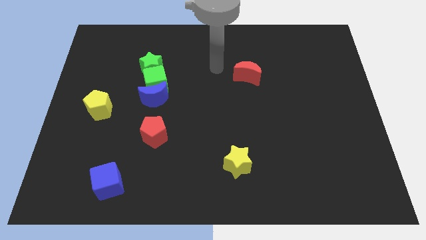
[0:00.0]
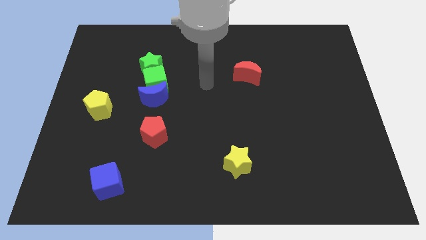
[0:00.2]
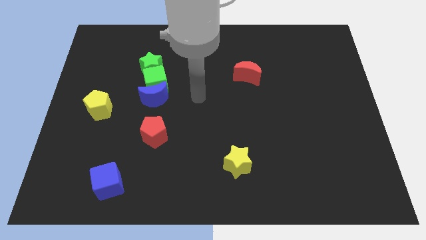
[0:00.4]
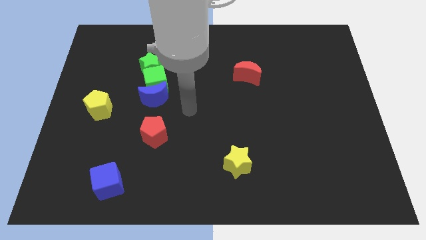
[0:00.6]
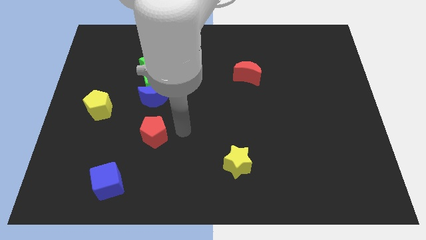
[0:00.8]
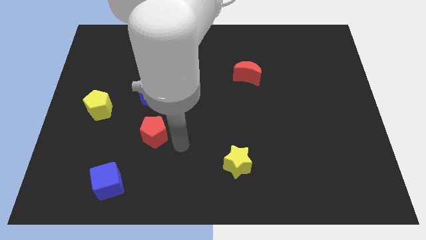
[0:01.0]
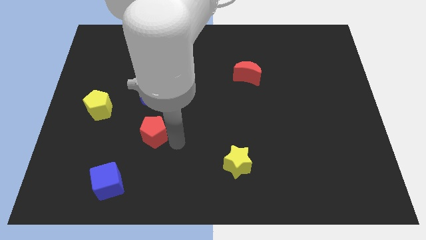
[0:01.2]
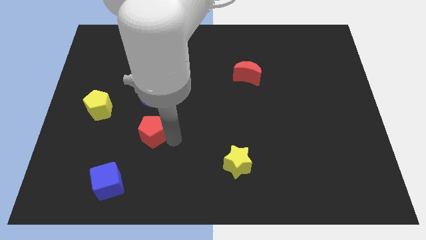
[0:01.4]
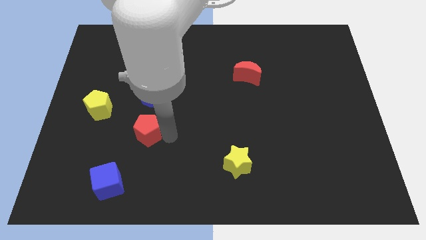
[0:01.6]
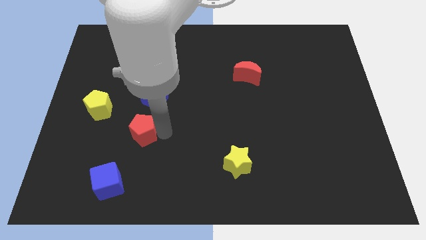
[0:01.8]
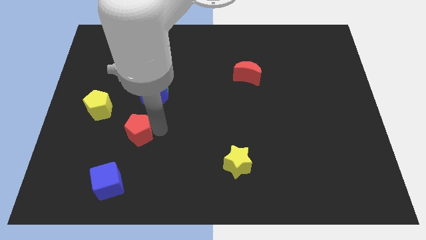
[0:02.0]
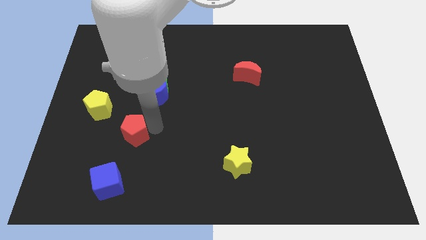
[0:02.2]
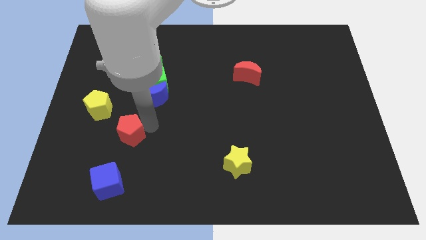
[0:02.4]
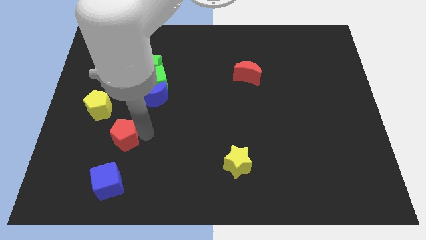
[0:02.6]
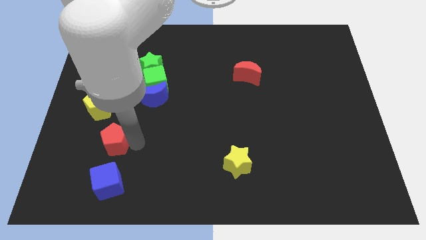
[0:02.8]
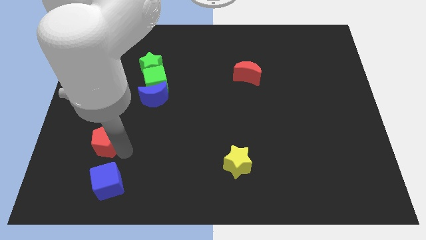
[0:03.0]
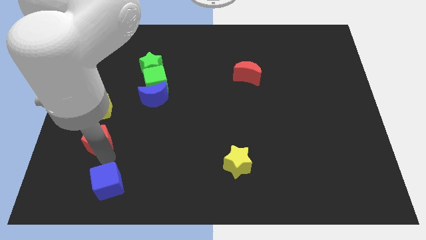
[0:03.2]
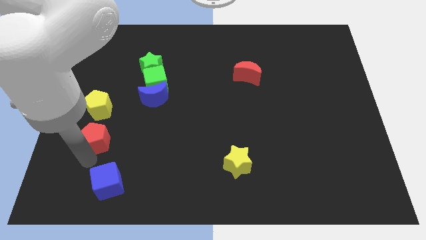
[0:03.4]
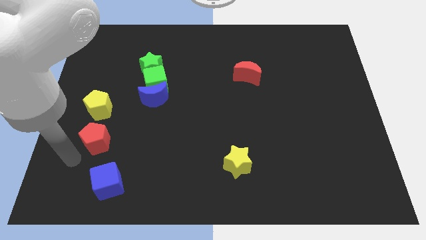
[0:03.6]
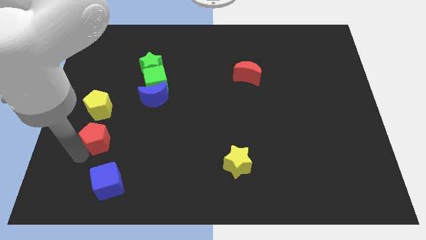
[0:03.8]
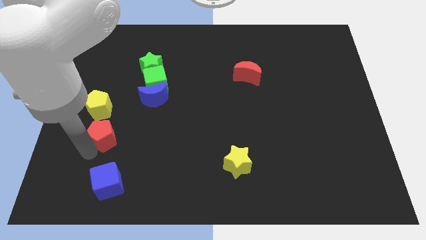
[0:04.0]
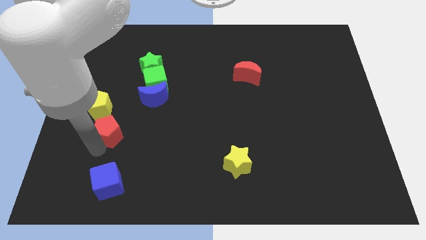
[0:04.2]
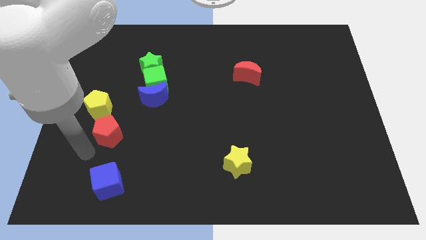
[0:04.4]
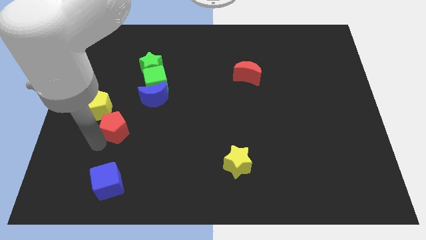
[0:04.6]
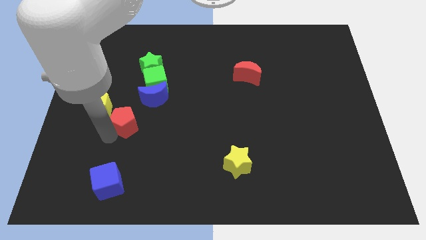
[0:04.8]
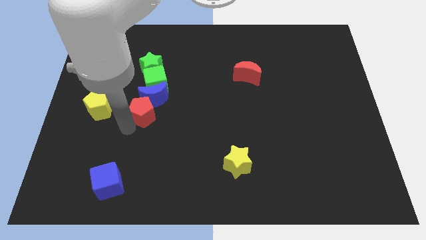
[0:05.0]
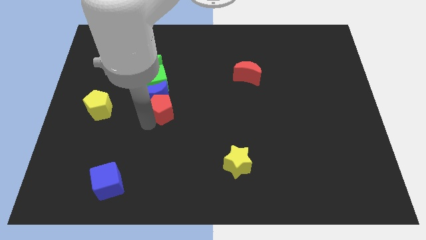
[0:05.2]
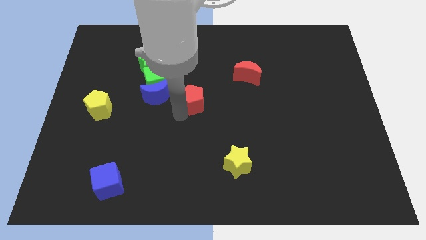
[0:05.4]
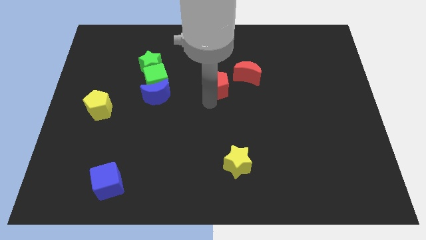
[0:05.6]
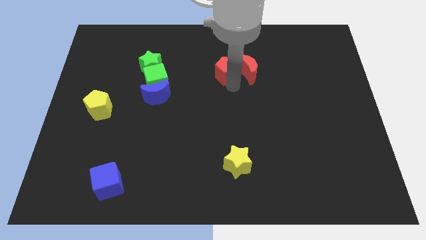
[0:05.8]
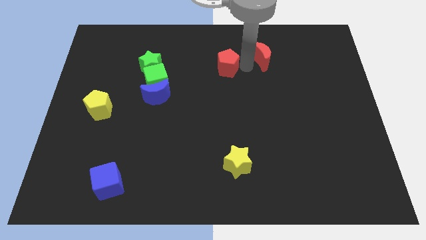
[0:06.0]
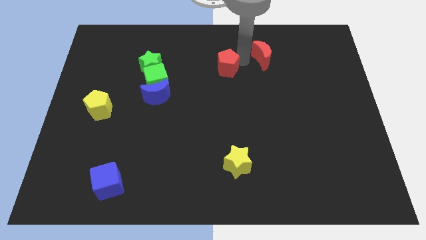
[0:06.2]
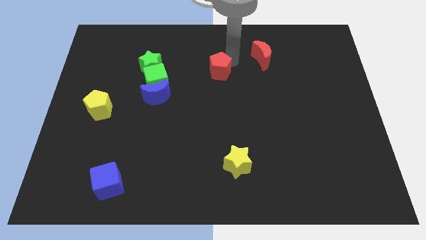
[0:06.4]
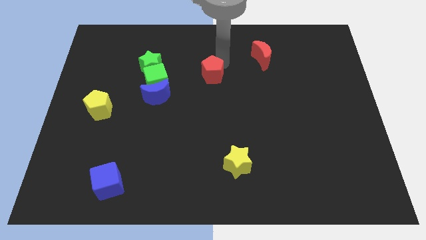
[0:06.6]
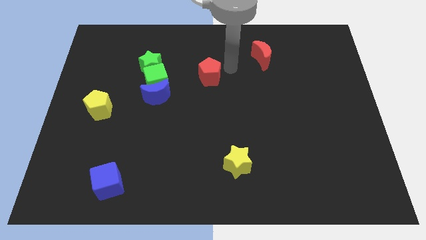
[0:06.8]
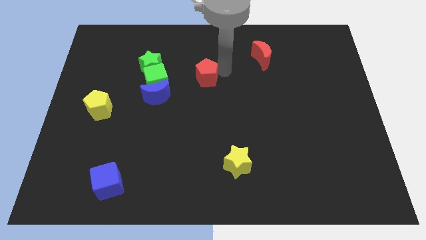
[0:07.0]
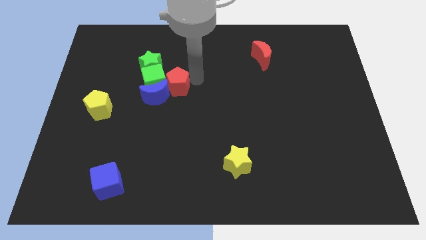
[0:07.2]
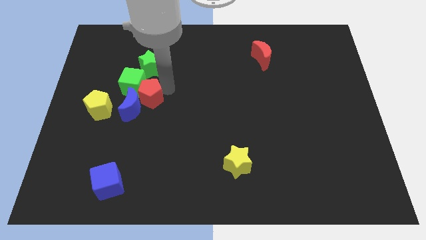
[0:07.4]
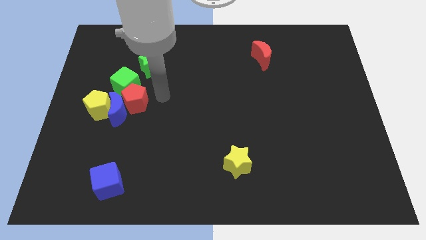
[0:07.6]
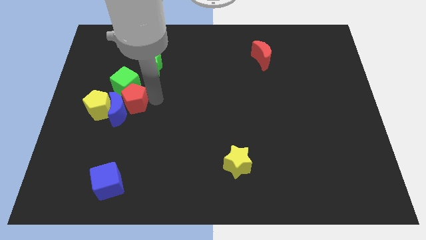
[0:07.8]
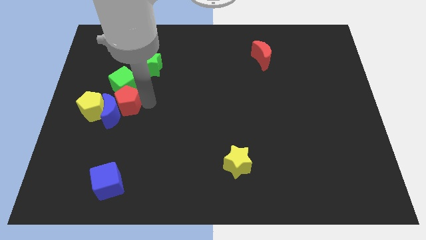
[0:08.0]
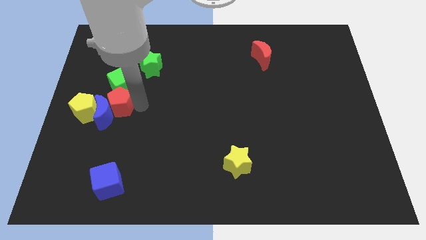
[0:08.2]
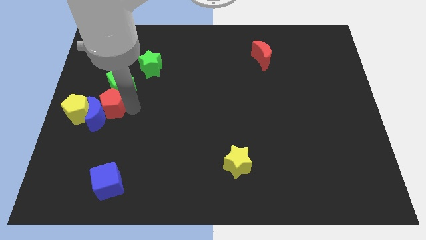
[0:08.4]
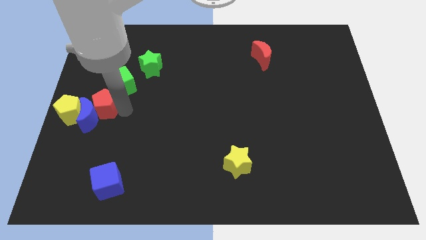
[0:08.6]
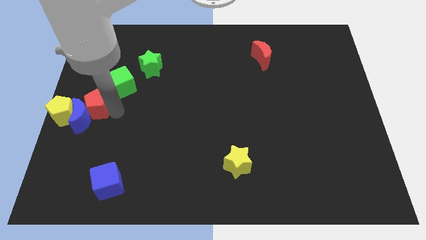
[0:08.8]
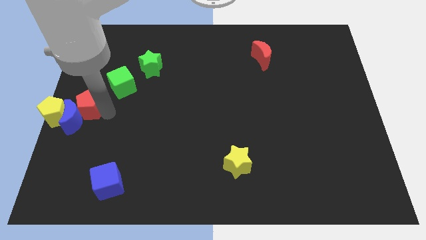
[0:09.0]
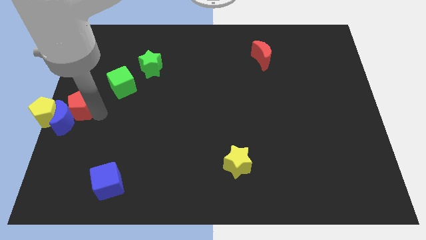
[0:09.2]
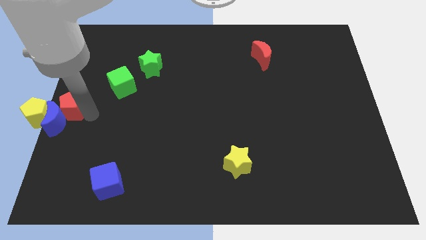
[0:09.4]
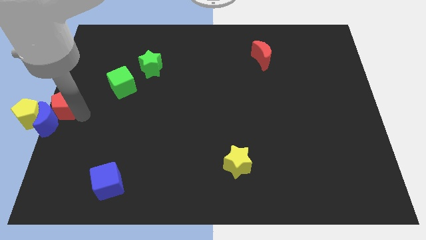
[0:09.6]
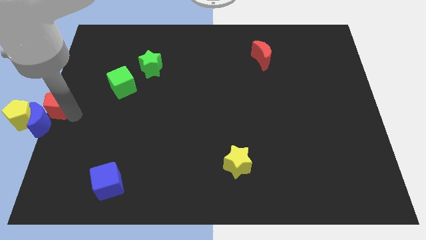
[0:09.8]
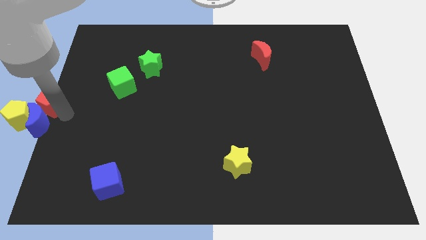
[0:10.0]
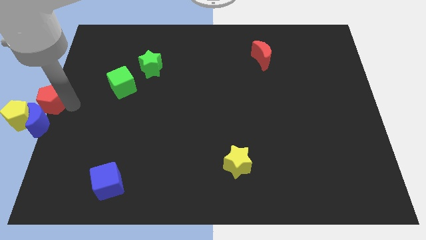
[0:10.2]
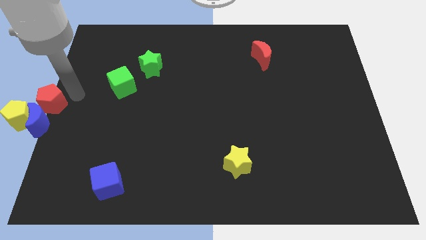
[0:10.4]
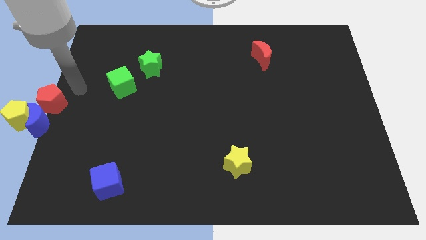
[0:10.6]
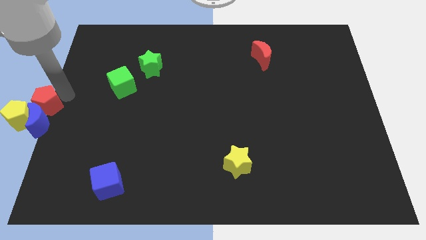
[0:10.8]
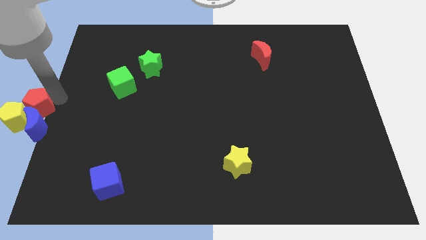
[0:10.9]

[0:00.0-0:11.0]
slide the red pentagon close to the yellow pentagon

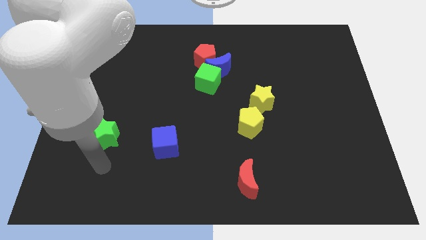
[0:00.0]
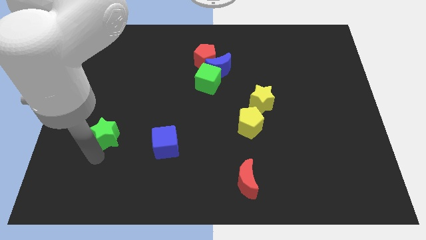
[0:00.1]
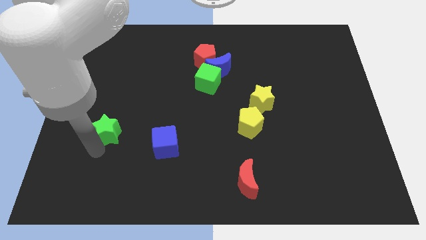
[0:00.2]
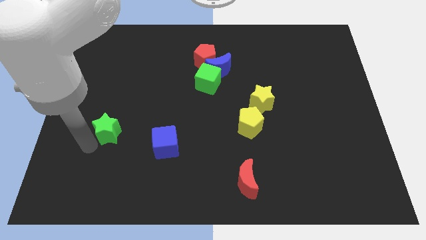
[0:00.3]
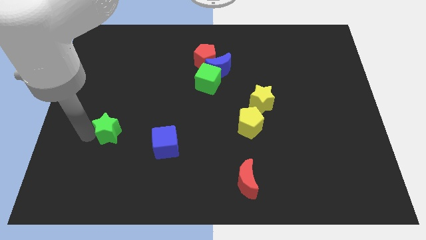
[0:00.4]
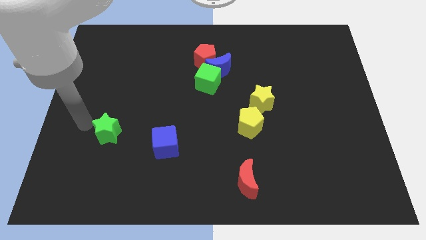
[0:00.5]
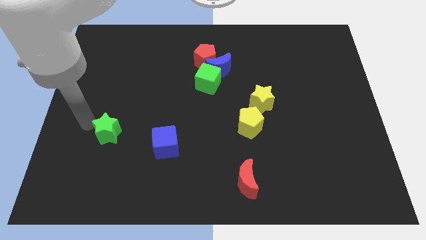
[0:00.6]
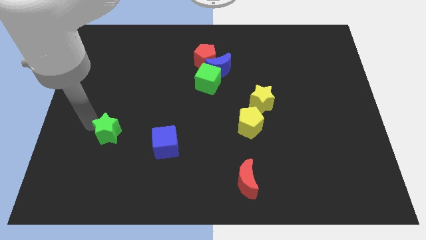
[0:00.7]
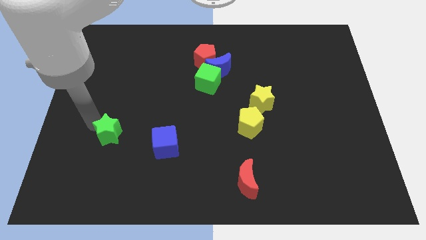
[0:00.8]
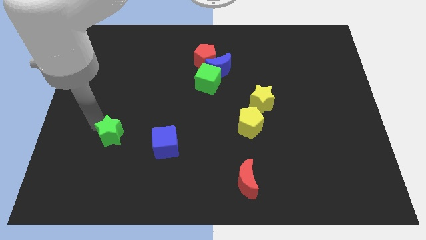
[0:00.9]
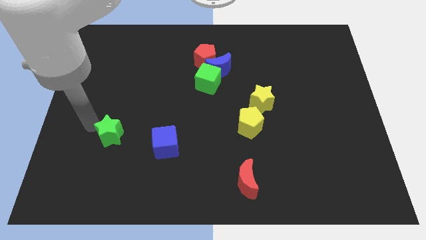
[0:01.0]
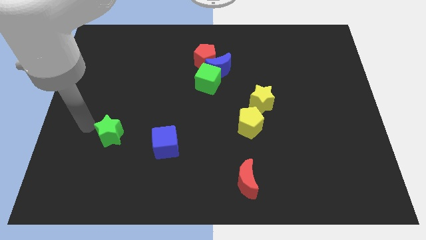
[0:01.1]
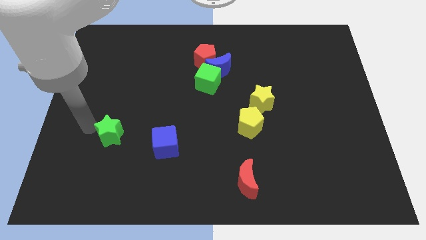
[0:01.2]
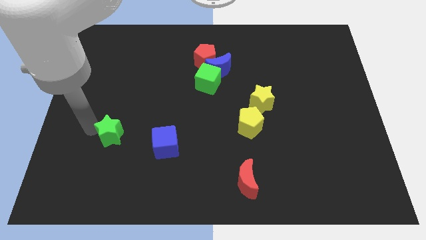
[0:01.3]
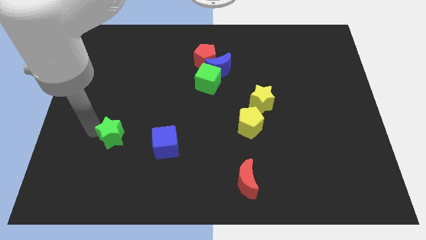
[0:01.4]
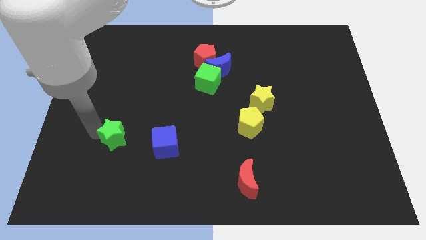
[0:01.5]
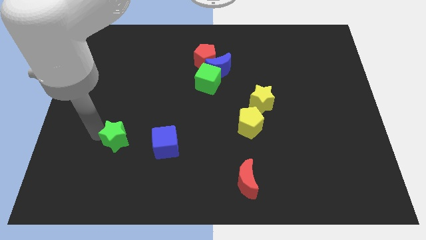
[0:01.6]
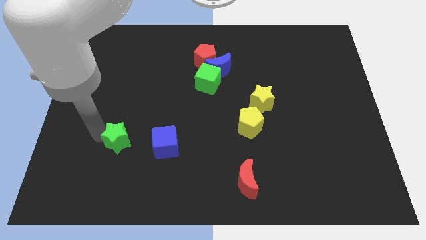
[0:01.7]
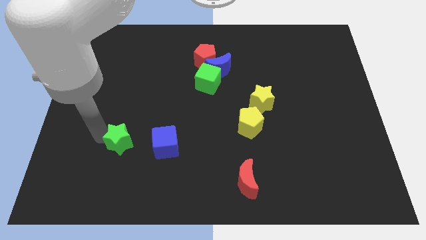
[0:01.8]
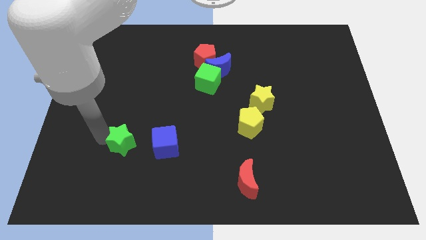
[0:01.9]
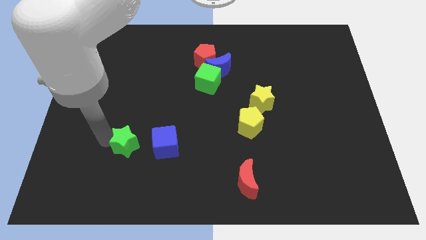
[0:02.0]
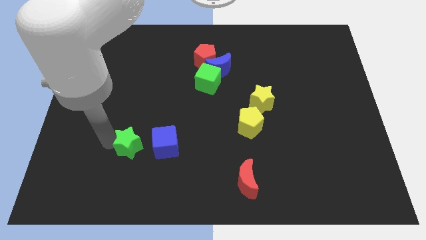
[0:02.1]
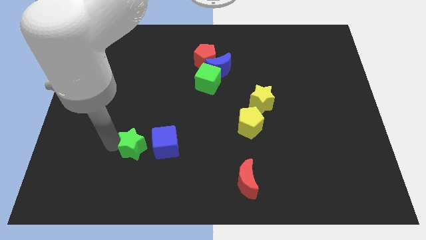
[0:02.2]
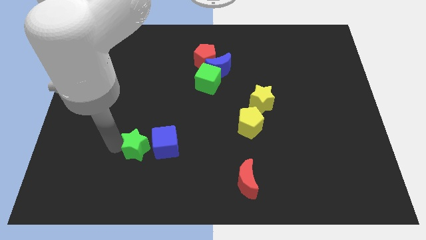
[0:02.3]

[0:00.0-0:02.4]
put the green star towards the blue cube
